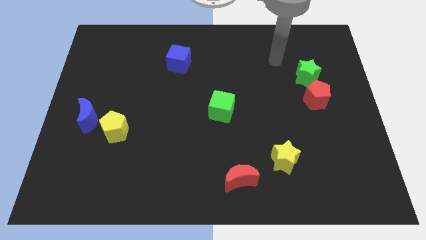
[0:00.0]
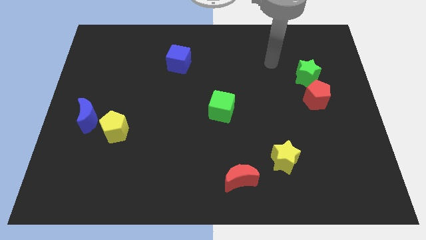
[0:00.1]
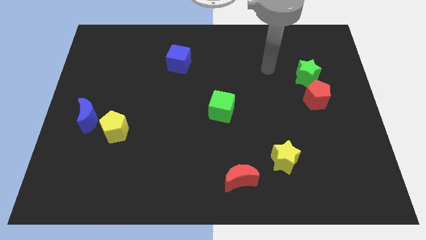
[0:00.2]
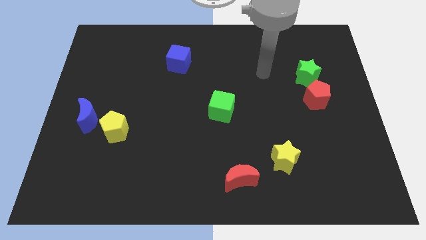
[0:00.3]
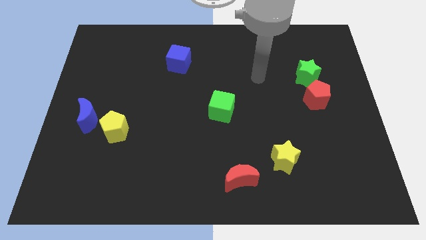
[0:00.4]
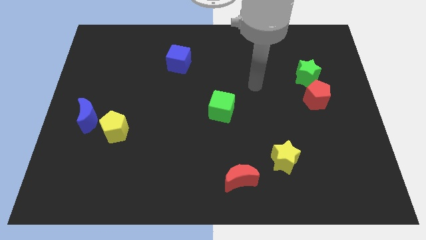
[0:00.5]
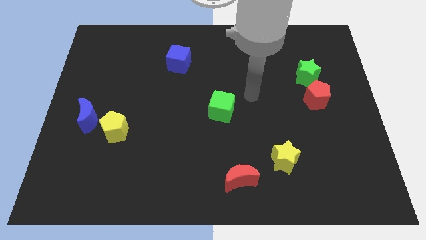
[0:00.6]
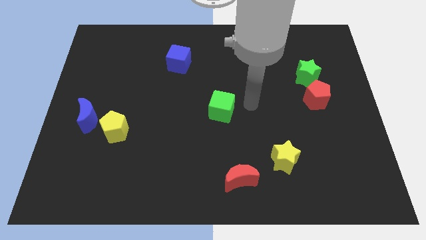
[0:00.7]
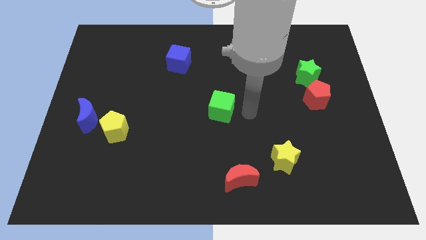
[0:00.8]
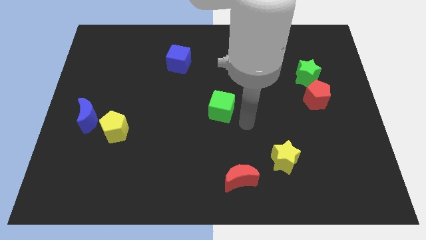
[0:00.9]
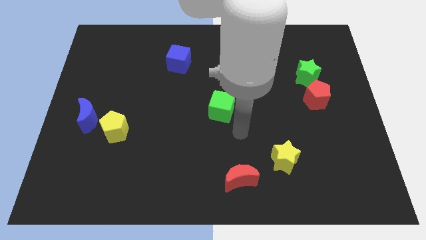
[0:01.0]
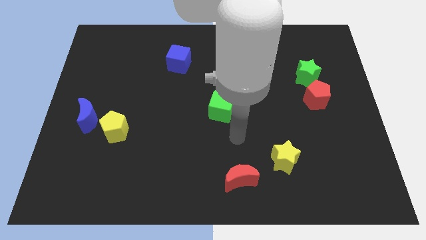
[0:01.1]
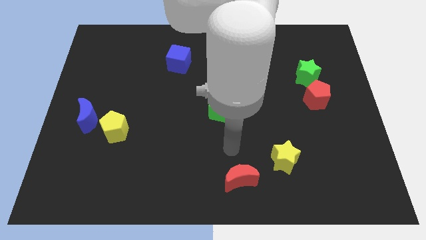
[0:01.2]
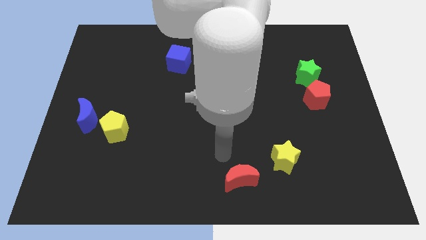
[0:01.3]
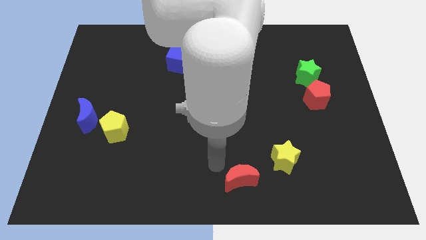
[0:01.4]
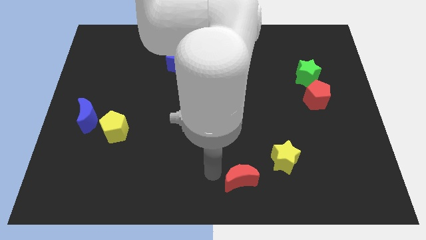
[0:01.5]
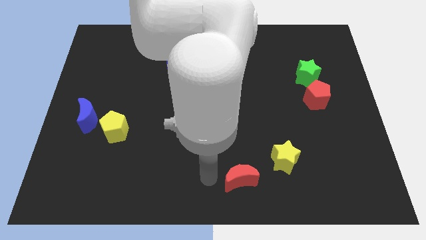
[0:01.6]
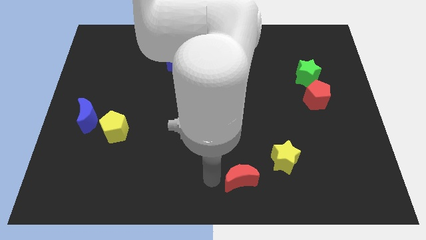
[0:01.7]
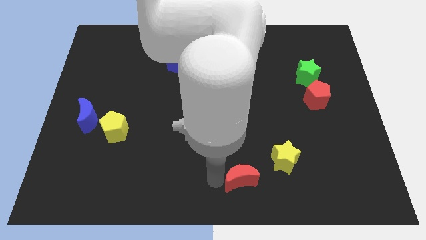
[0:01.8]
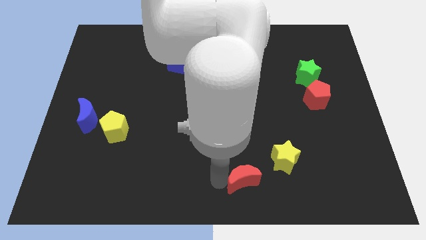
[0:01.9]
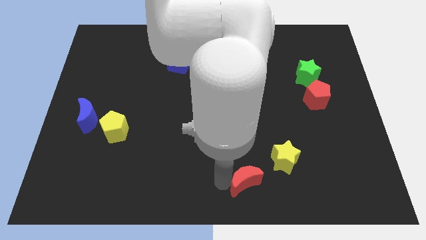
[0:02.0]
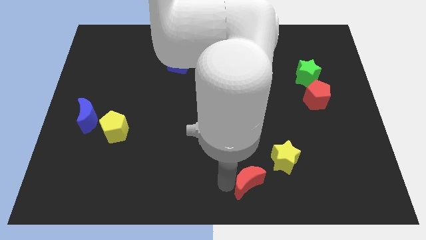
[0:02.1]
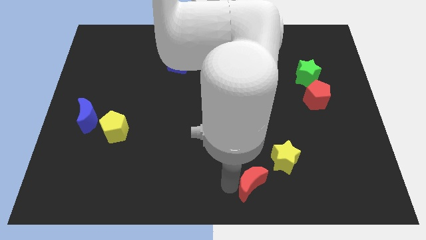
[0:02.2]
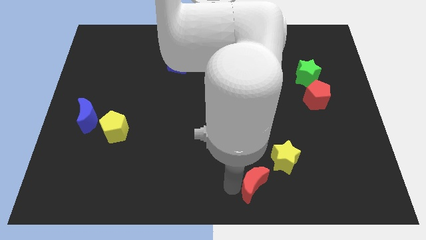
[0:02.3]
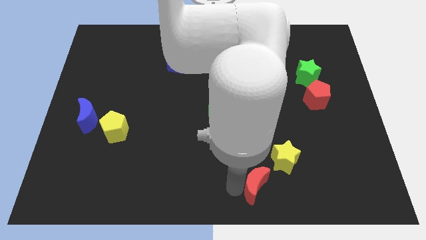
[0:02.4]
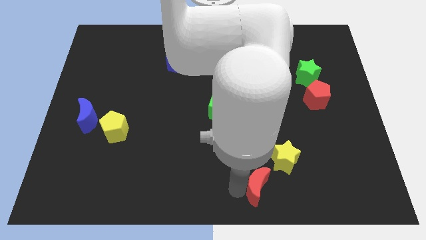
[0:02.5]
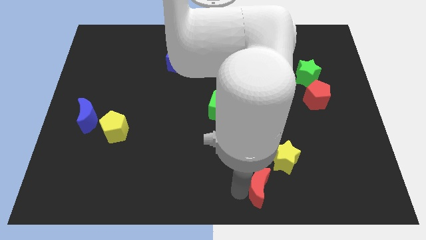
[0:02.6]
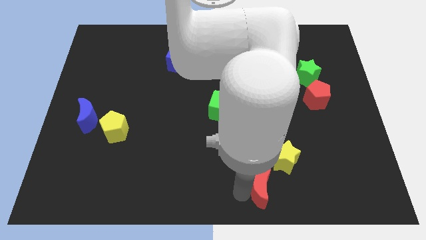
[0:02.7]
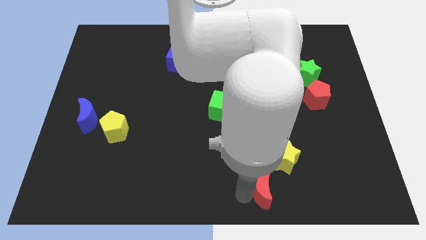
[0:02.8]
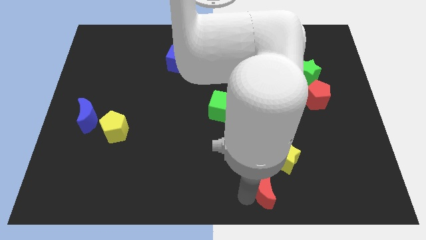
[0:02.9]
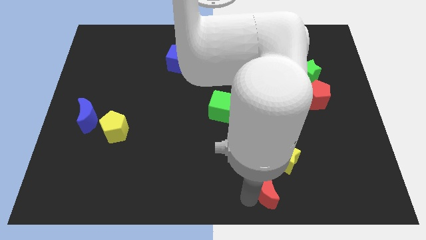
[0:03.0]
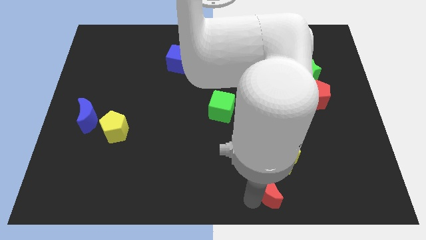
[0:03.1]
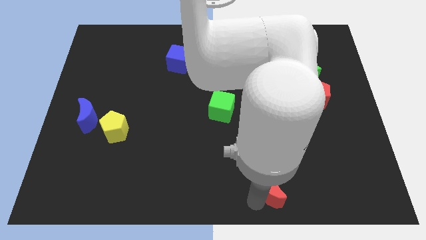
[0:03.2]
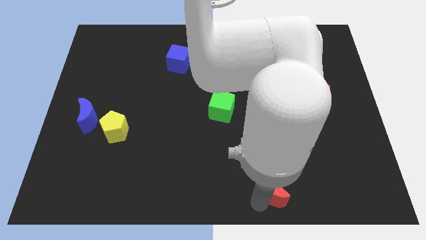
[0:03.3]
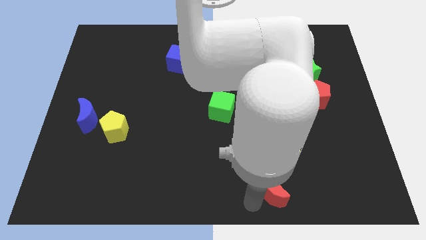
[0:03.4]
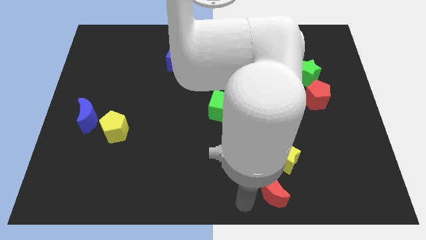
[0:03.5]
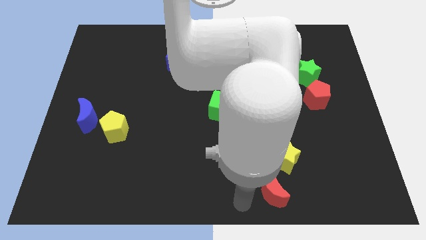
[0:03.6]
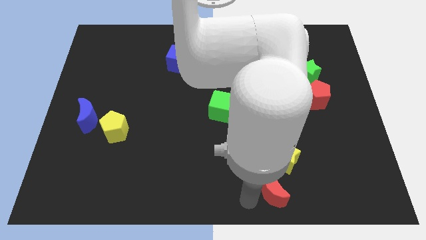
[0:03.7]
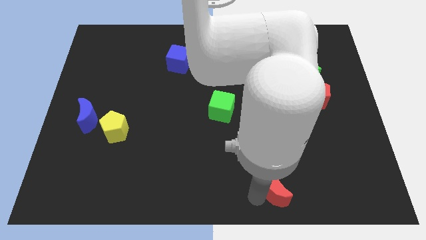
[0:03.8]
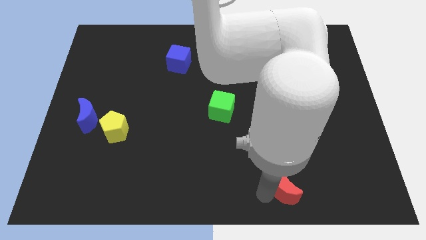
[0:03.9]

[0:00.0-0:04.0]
slightly slide the red moon right

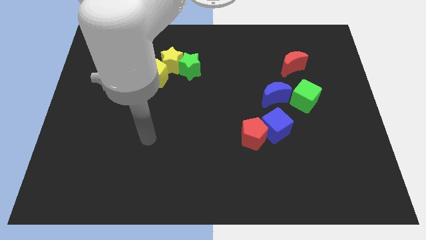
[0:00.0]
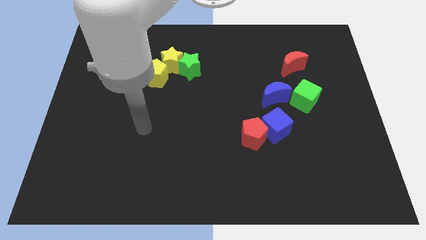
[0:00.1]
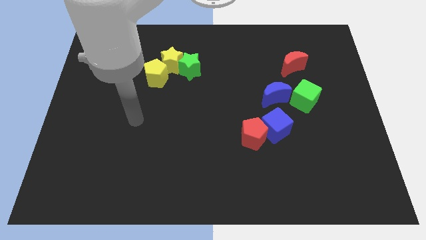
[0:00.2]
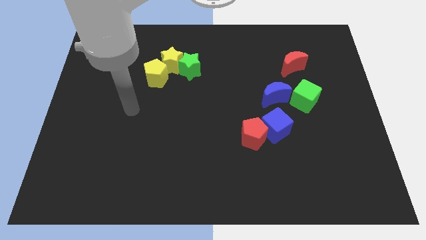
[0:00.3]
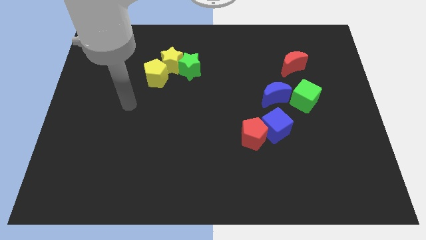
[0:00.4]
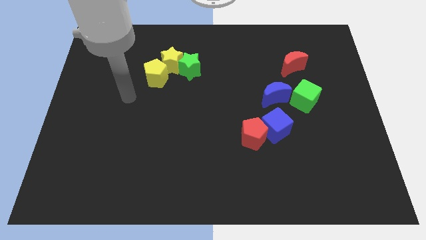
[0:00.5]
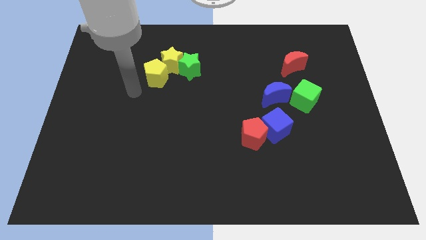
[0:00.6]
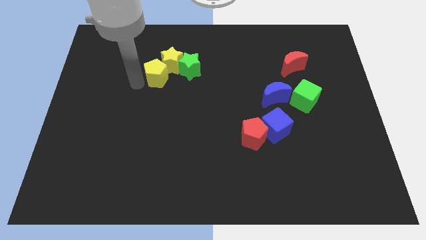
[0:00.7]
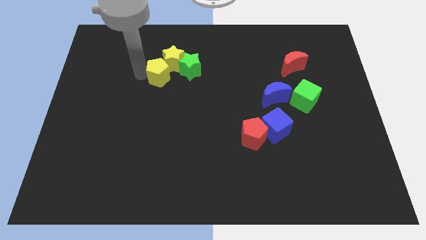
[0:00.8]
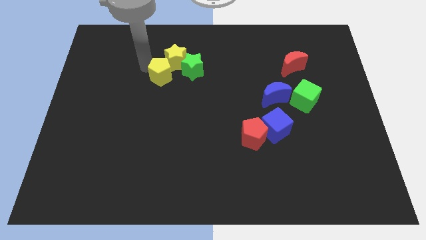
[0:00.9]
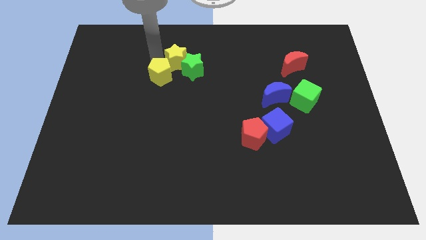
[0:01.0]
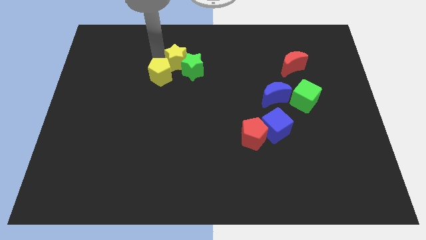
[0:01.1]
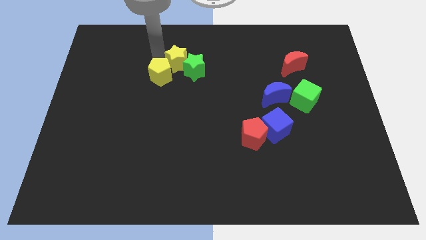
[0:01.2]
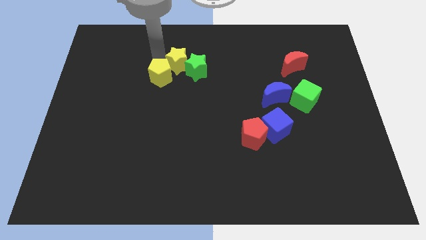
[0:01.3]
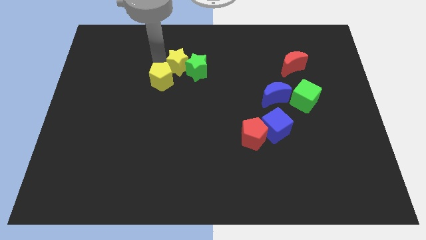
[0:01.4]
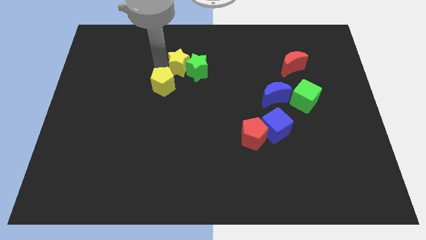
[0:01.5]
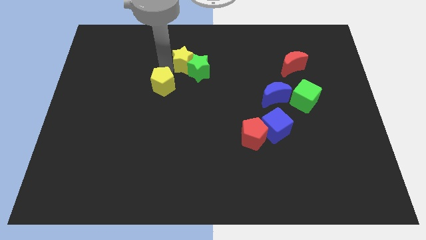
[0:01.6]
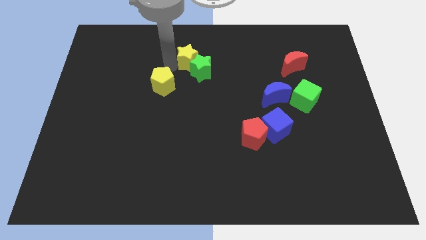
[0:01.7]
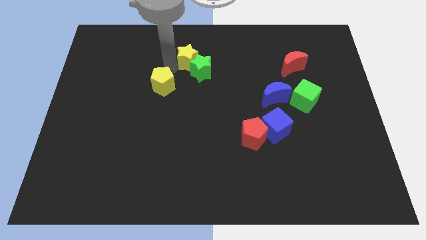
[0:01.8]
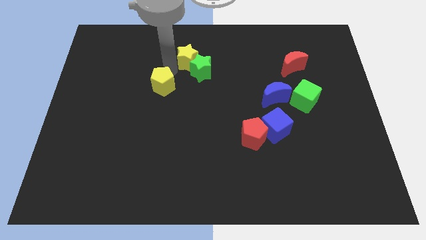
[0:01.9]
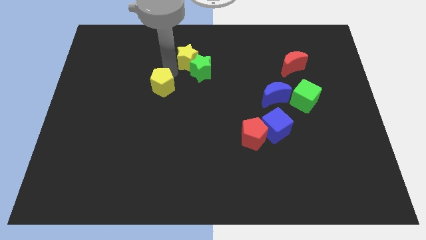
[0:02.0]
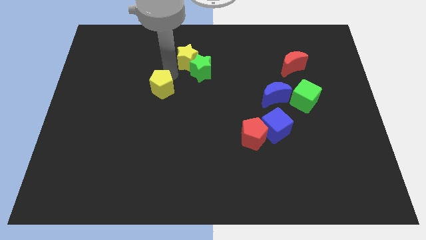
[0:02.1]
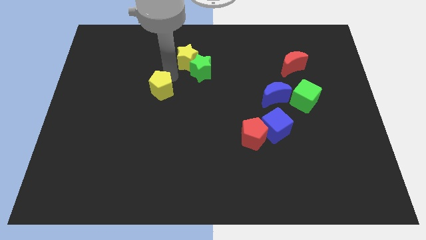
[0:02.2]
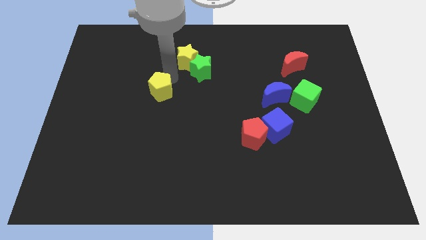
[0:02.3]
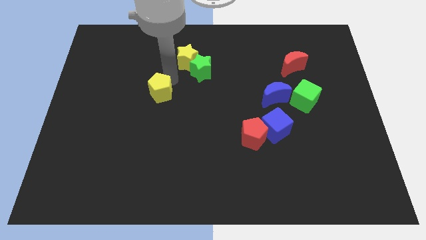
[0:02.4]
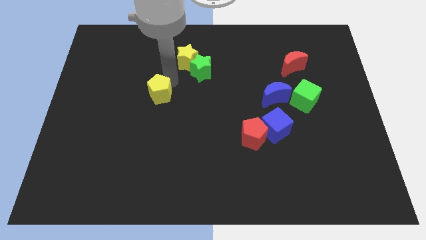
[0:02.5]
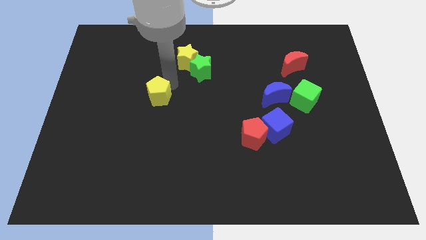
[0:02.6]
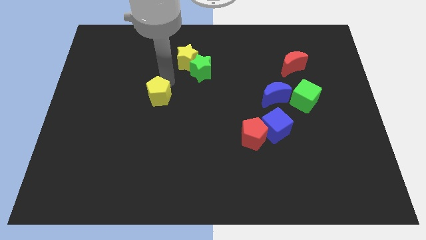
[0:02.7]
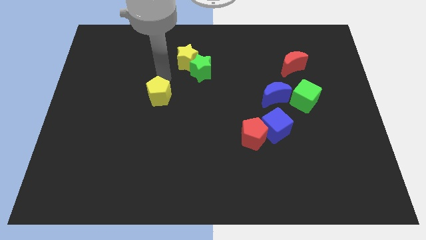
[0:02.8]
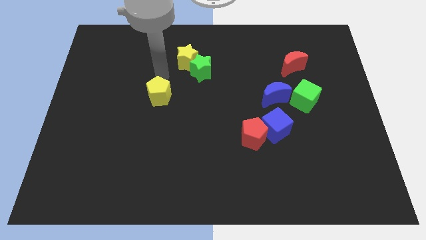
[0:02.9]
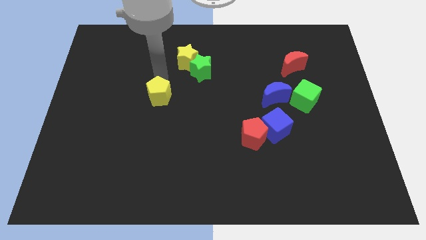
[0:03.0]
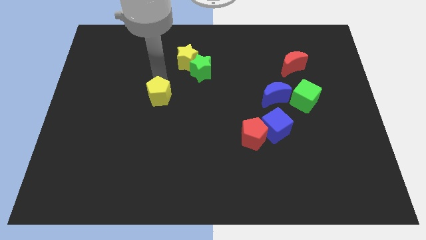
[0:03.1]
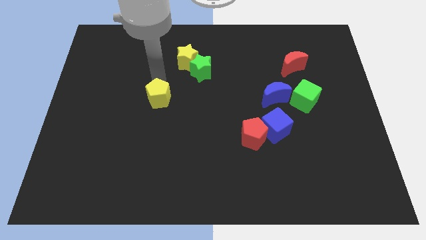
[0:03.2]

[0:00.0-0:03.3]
move the yellow pentagon downwards a little bit

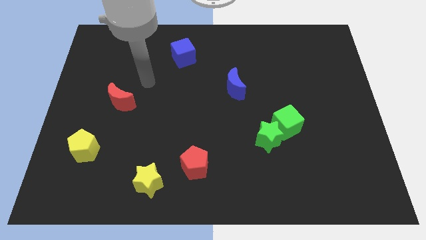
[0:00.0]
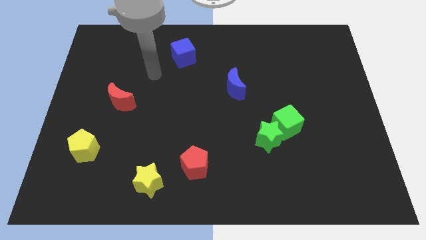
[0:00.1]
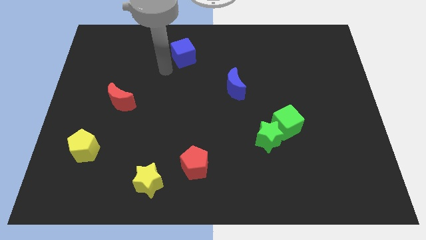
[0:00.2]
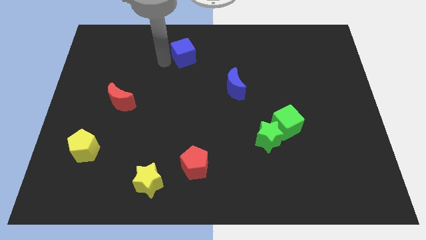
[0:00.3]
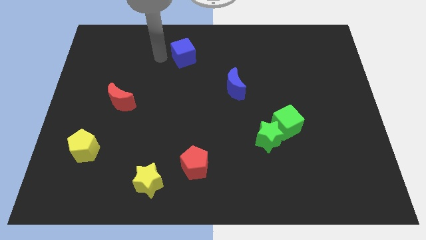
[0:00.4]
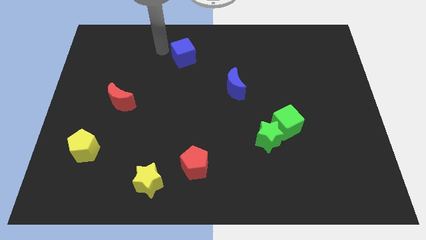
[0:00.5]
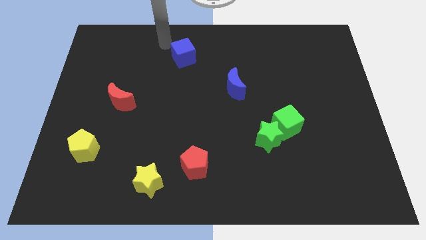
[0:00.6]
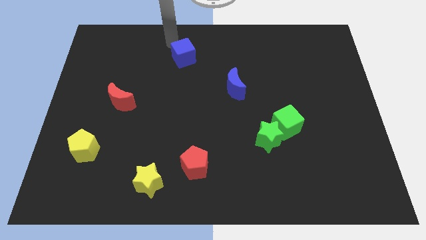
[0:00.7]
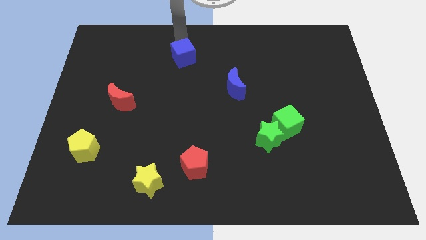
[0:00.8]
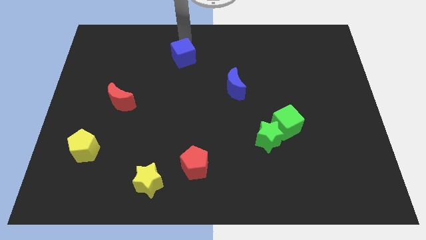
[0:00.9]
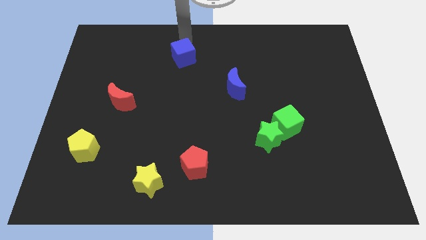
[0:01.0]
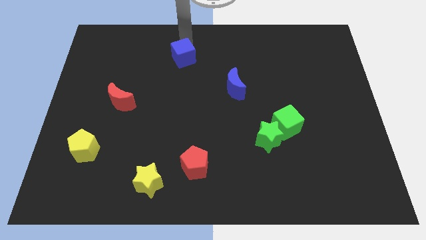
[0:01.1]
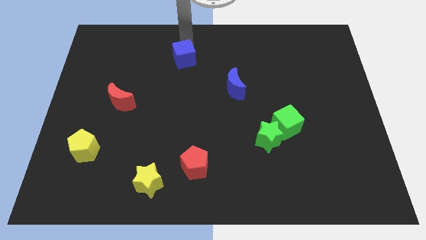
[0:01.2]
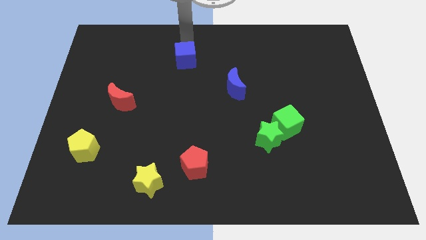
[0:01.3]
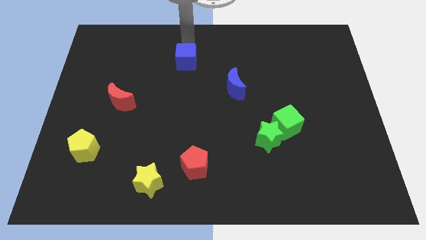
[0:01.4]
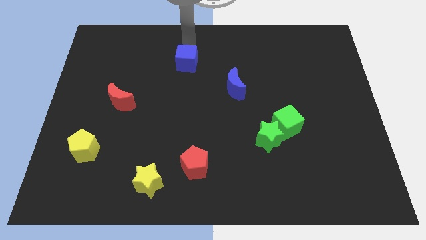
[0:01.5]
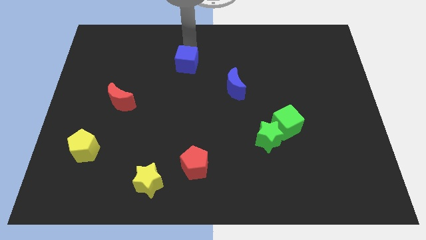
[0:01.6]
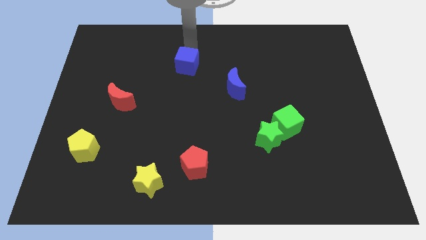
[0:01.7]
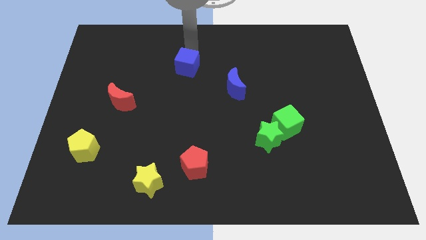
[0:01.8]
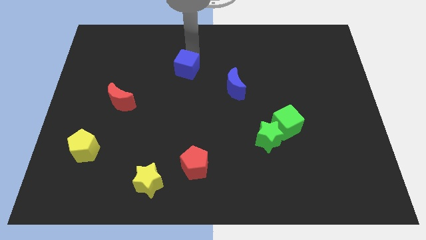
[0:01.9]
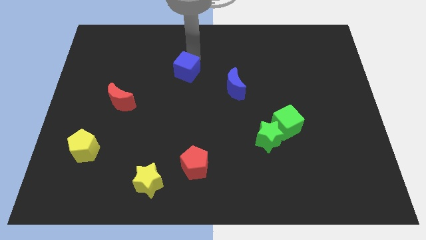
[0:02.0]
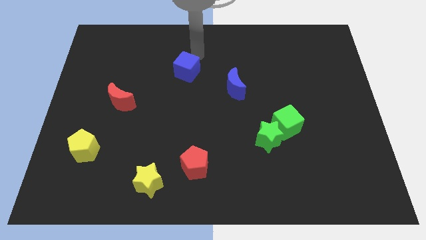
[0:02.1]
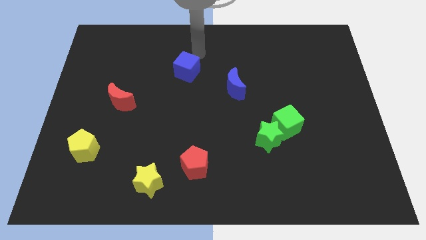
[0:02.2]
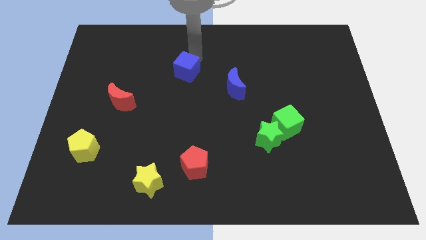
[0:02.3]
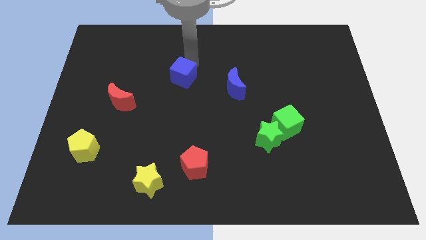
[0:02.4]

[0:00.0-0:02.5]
push the blue cube a little downwards
